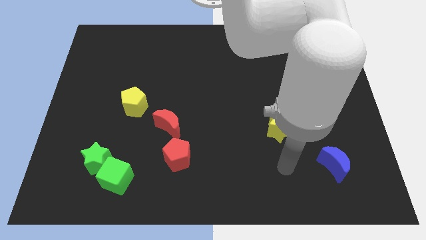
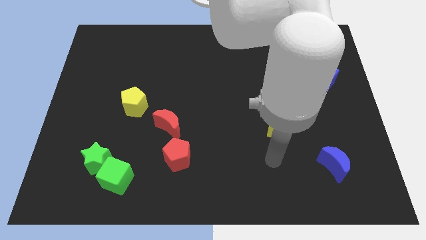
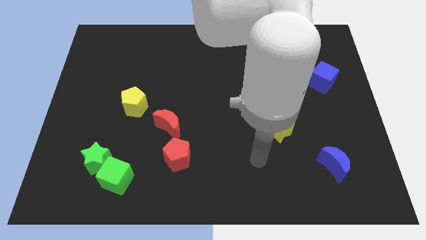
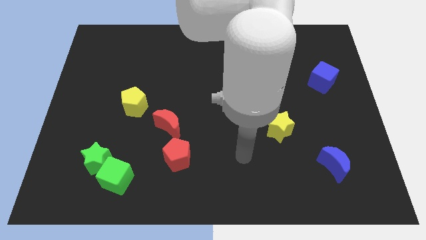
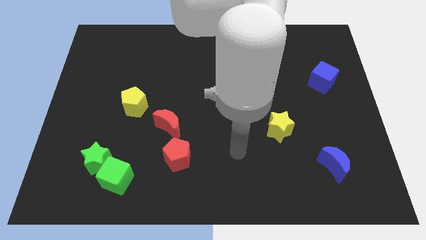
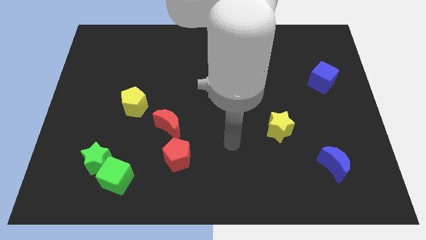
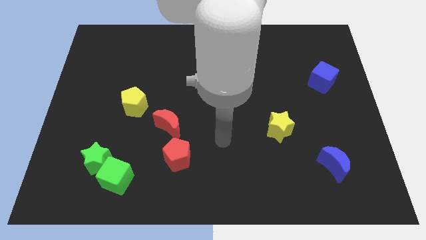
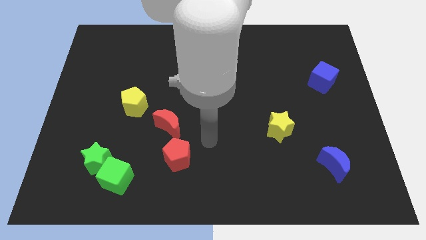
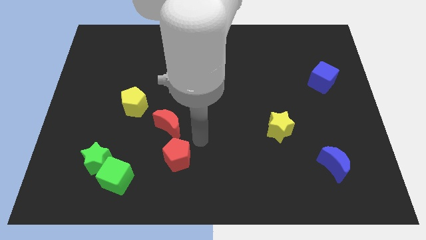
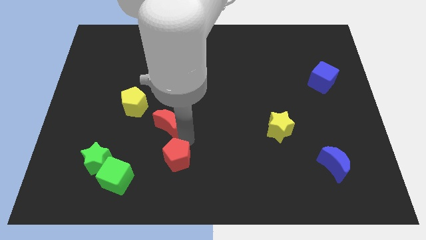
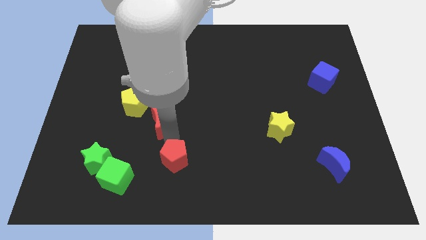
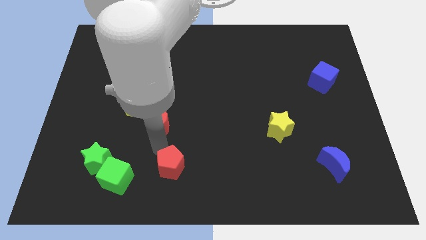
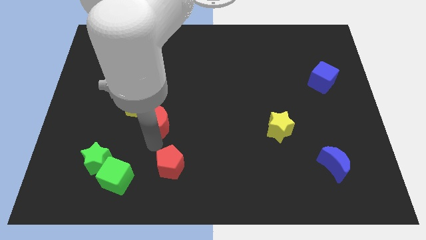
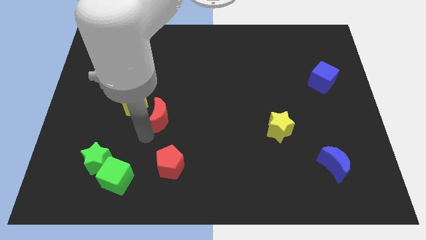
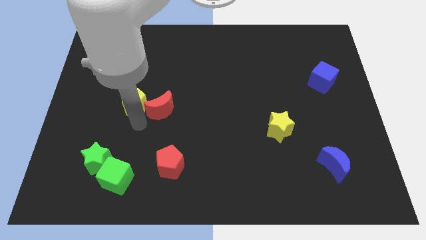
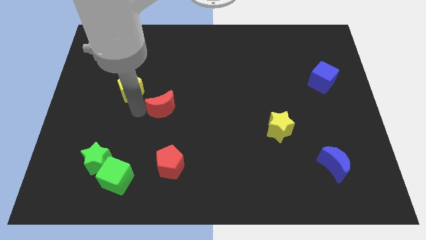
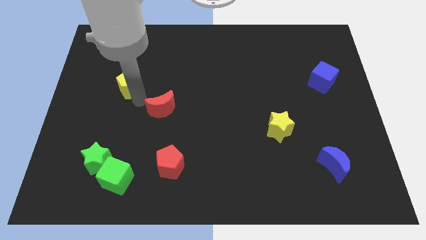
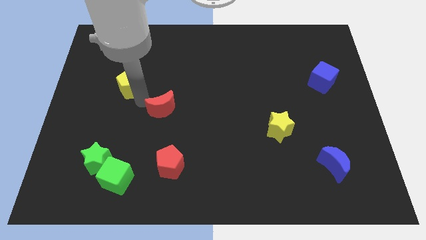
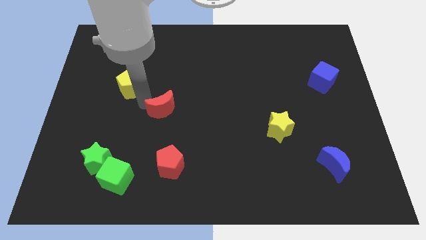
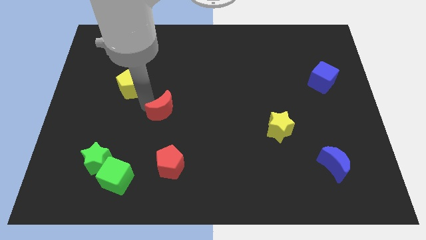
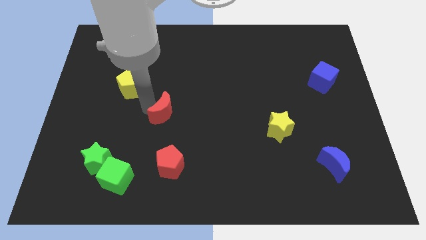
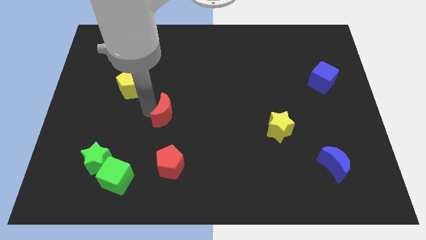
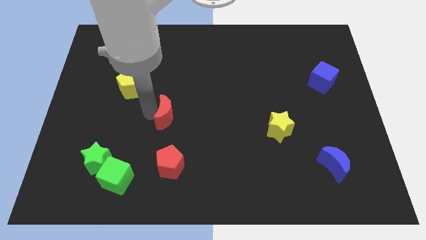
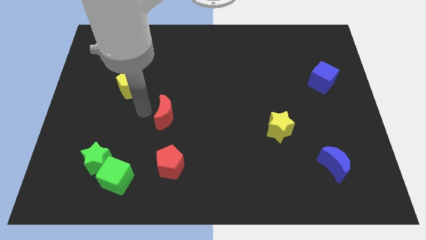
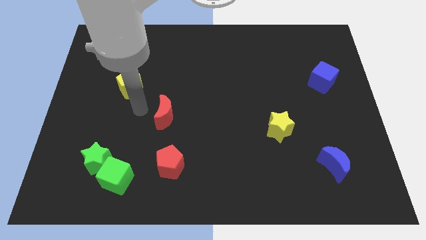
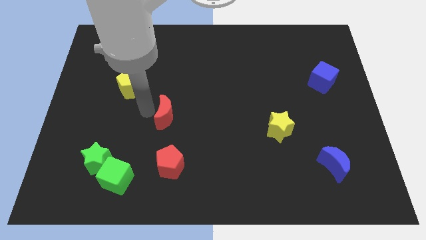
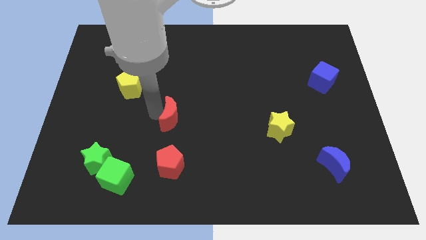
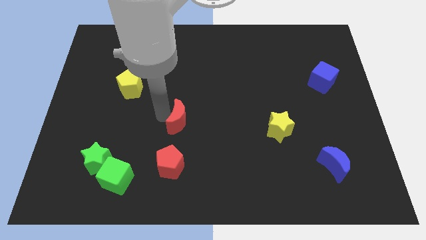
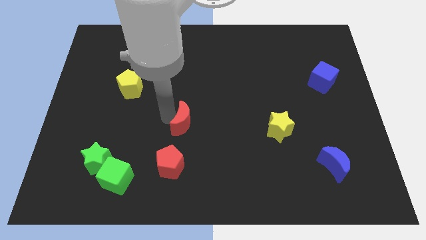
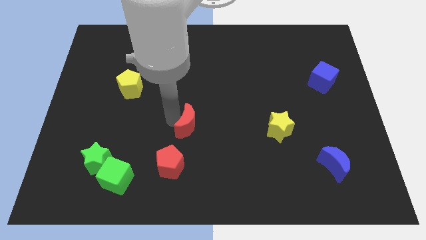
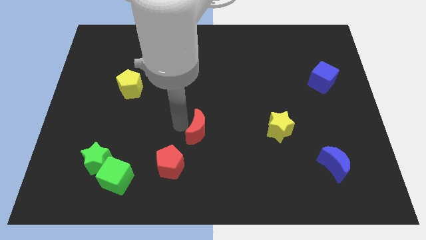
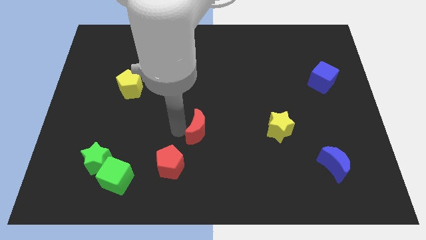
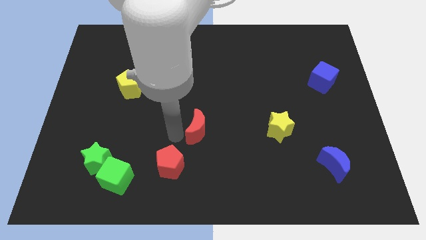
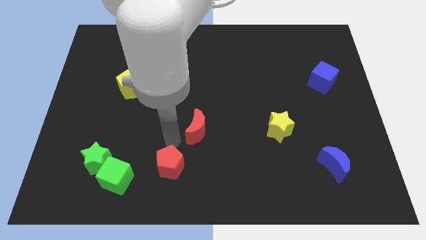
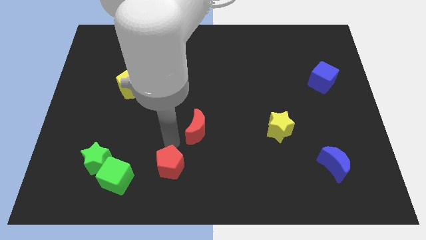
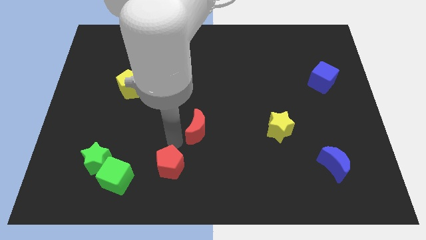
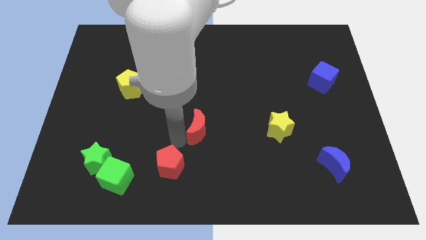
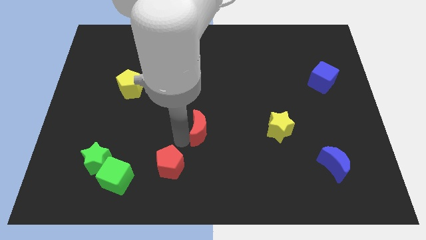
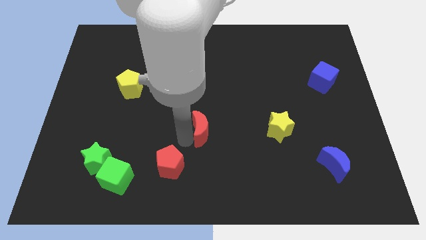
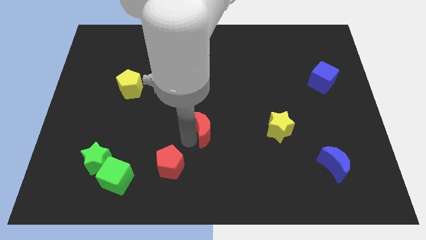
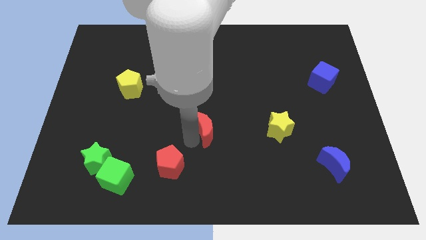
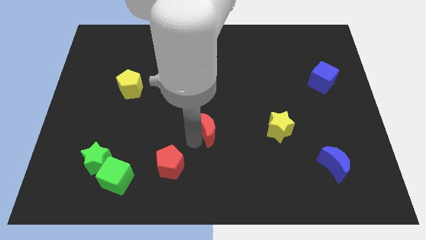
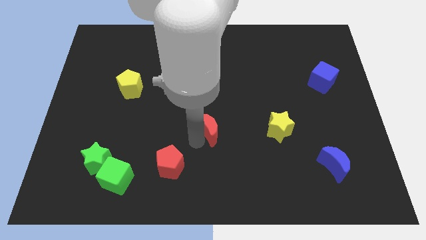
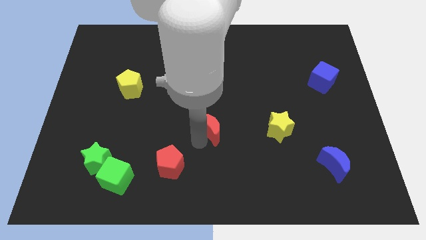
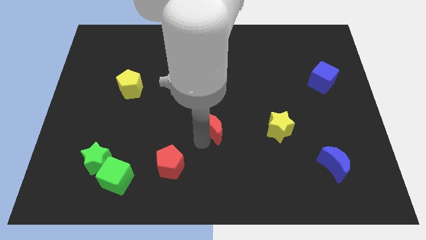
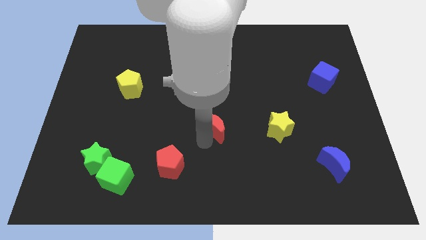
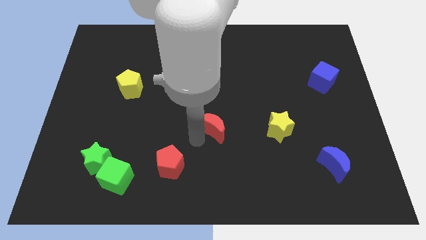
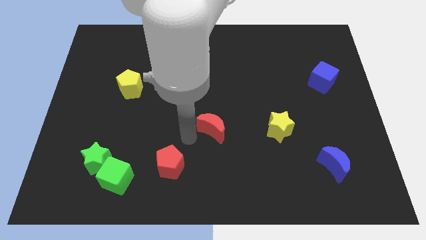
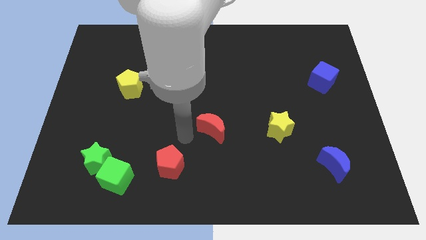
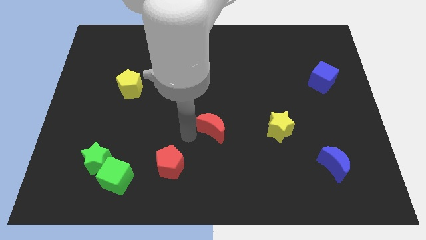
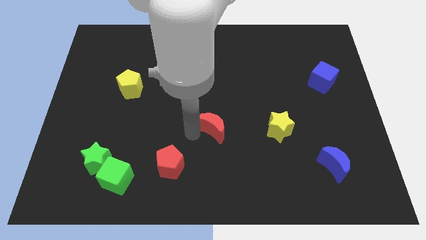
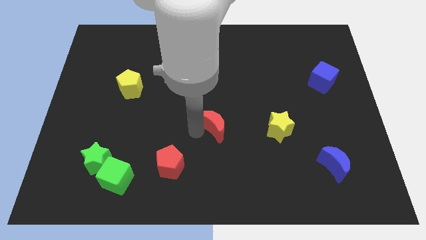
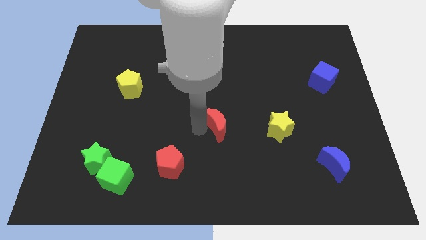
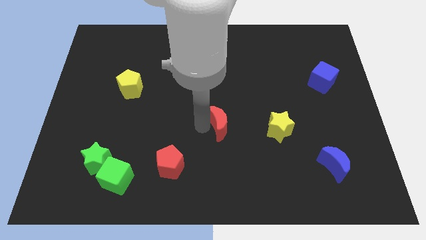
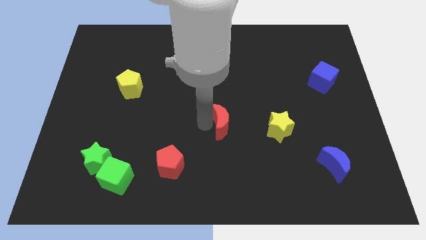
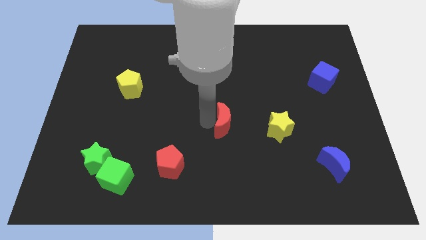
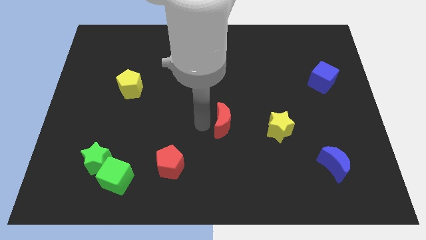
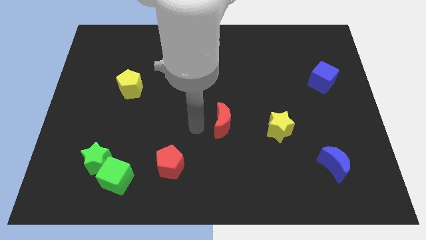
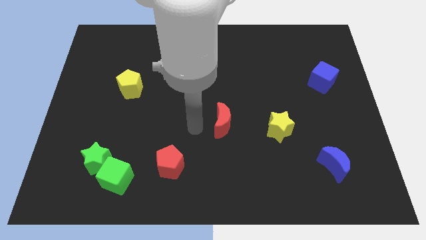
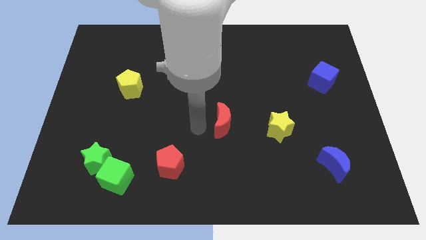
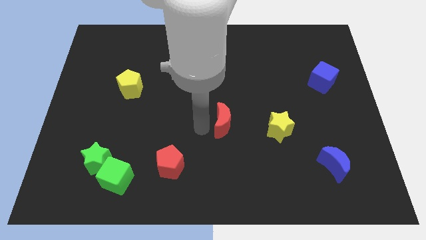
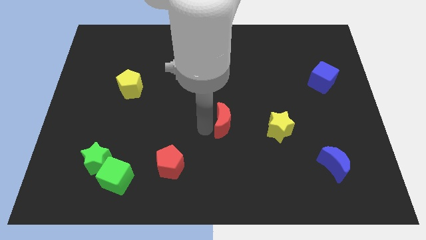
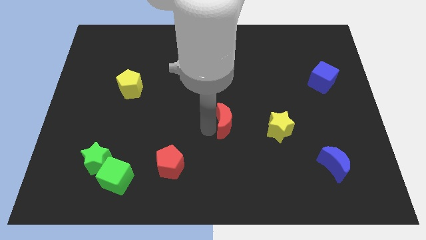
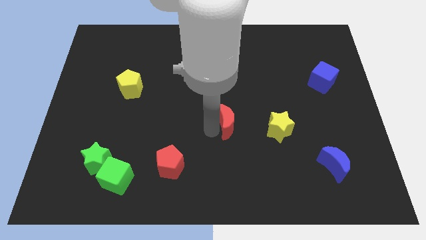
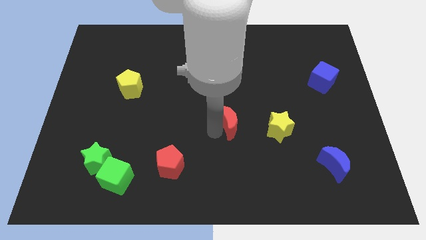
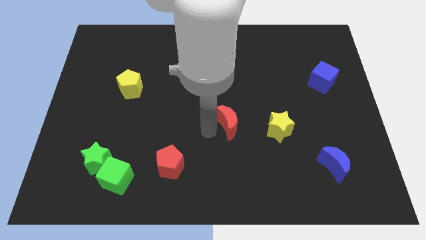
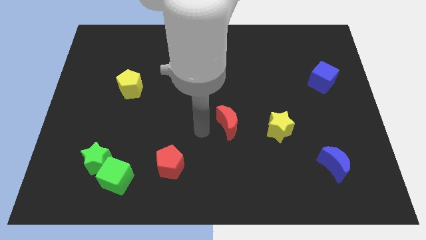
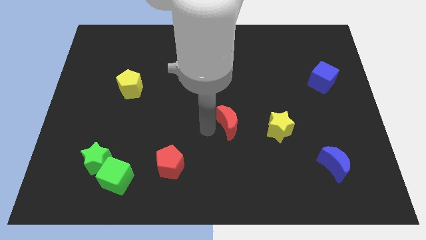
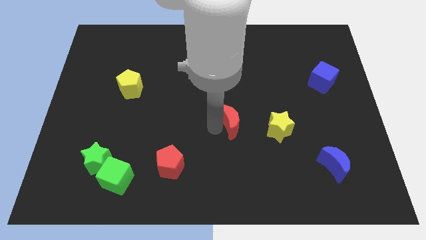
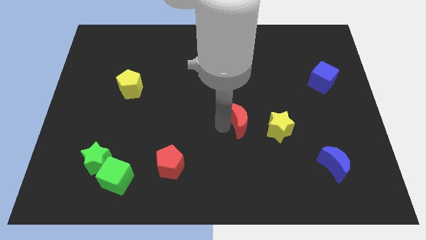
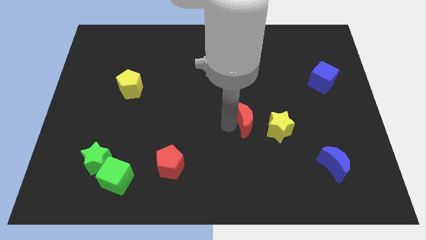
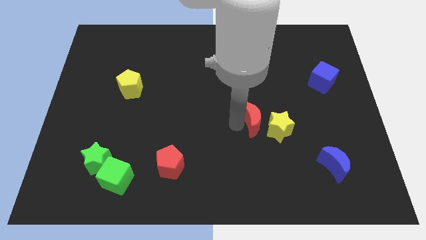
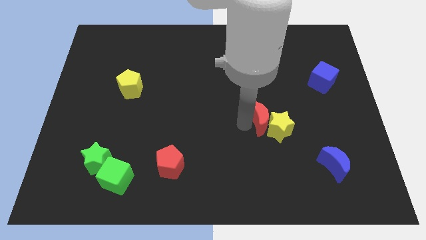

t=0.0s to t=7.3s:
slide the red moon to the right

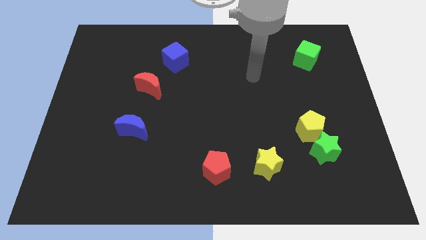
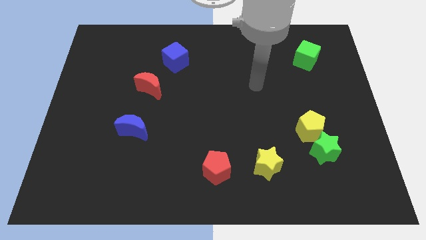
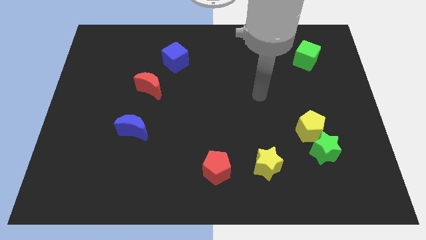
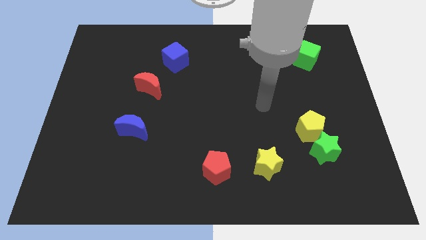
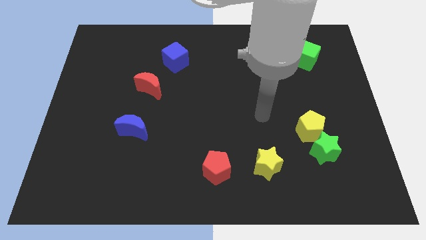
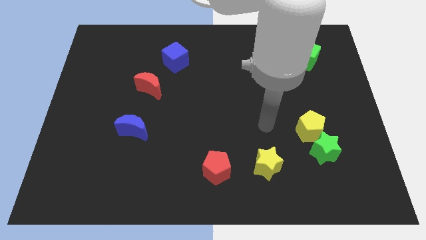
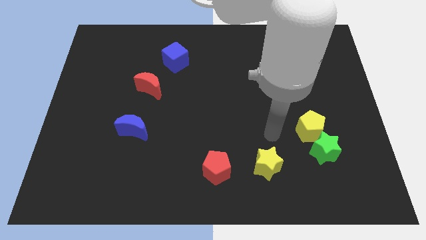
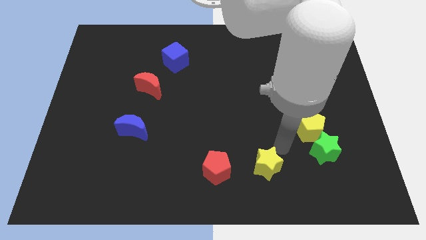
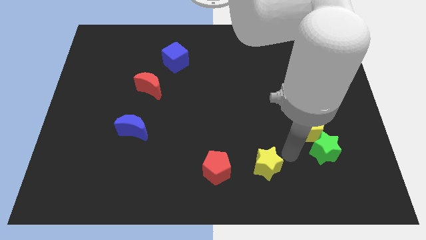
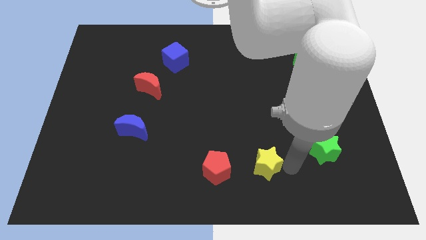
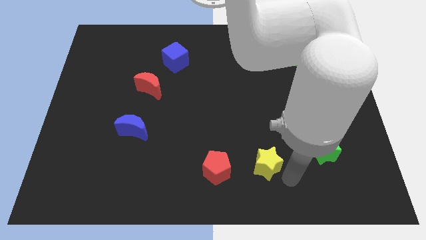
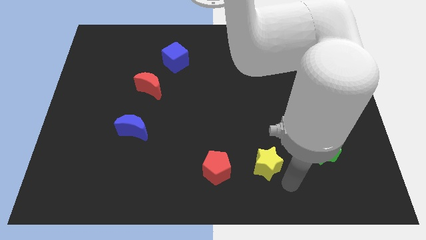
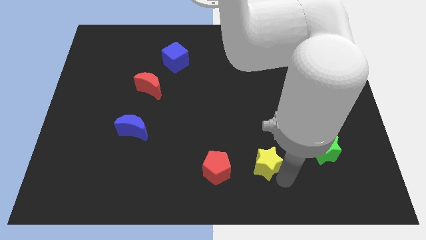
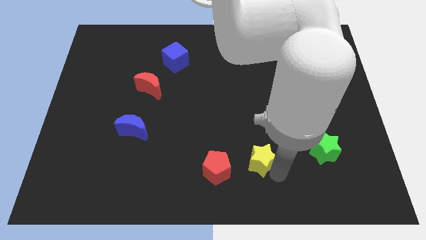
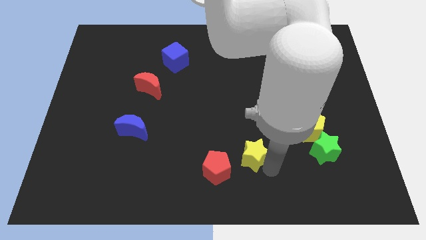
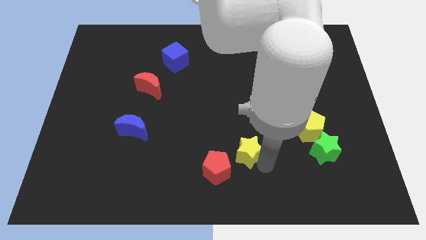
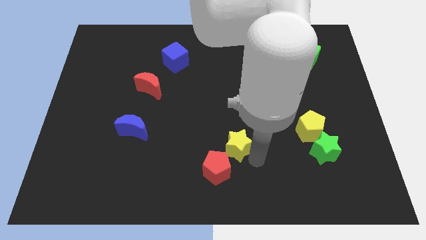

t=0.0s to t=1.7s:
slightly slide the yellow star up and to the left diagonally
